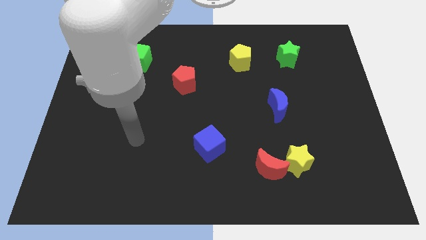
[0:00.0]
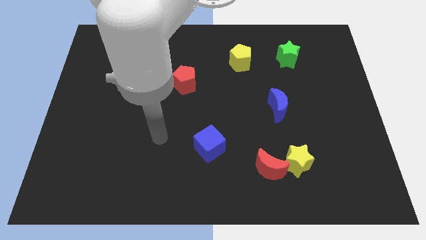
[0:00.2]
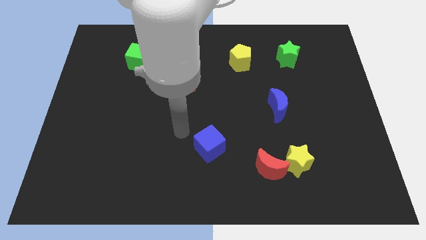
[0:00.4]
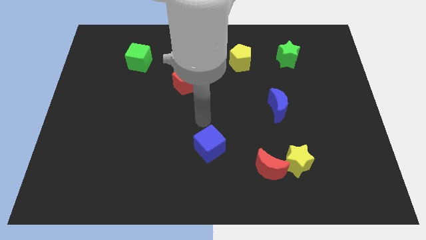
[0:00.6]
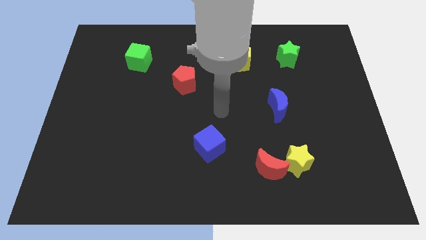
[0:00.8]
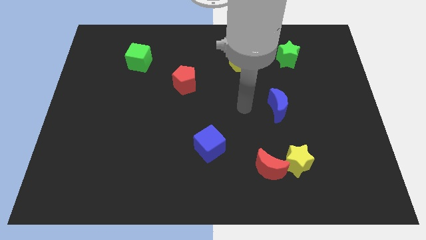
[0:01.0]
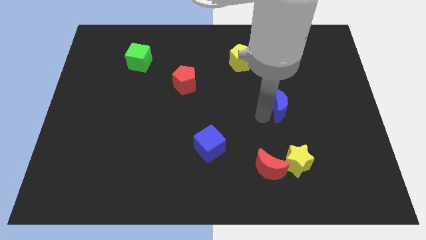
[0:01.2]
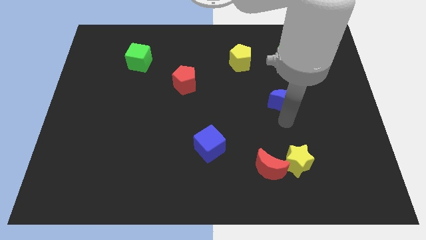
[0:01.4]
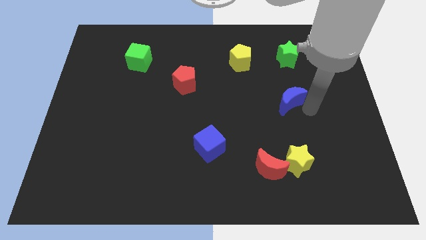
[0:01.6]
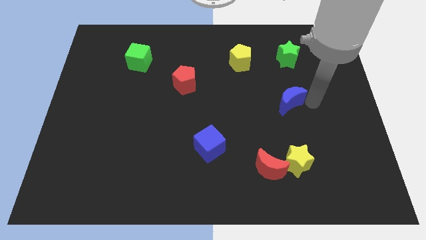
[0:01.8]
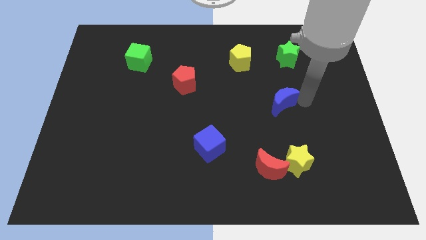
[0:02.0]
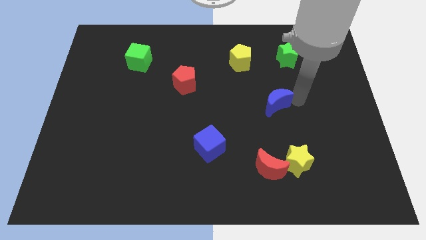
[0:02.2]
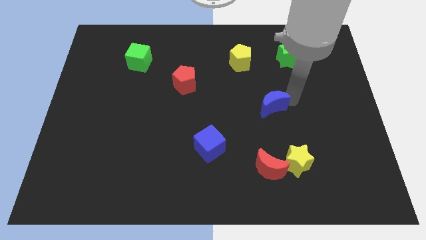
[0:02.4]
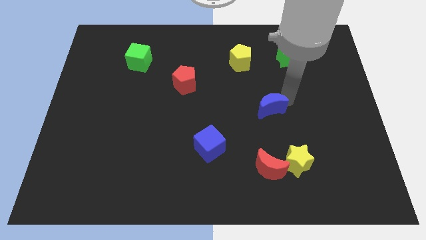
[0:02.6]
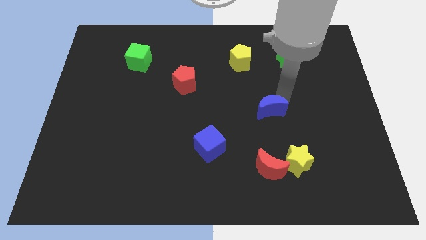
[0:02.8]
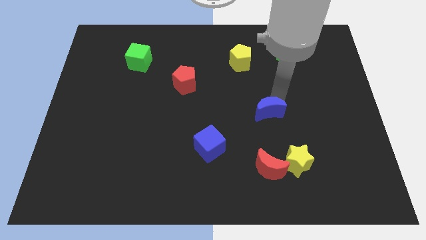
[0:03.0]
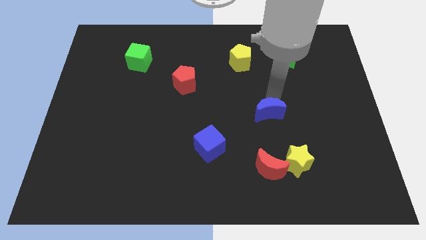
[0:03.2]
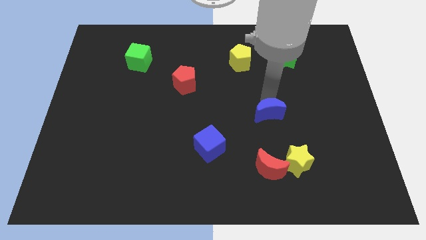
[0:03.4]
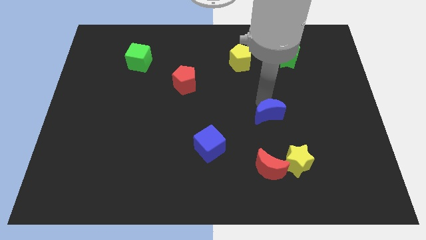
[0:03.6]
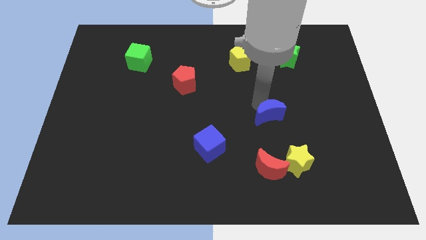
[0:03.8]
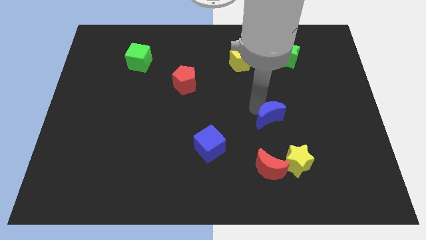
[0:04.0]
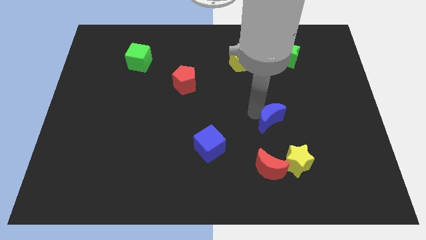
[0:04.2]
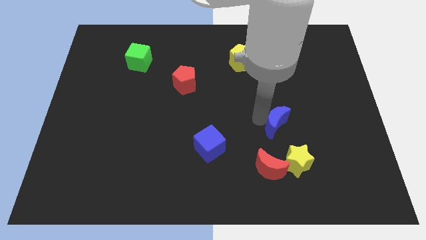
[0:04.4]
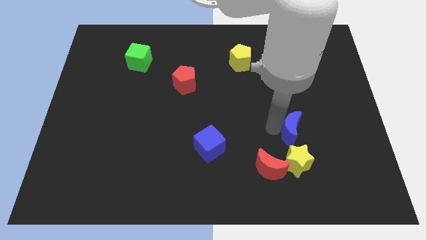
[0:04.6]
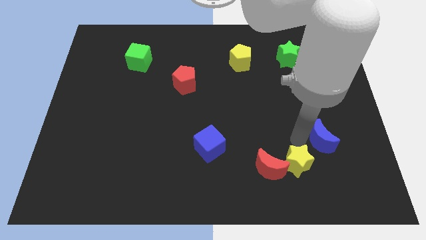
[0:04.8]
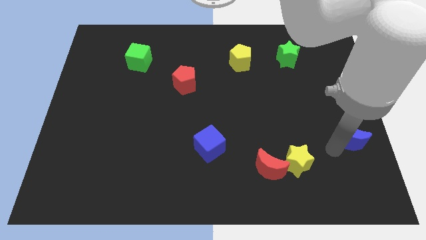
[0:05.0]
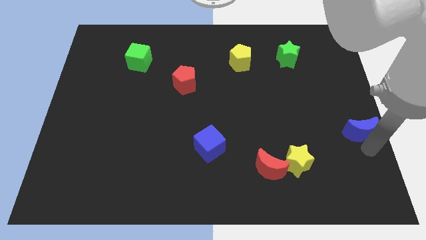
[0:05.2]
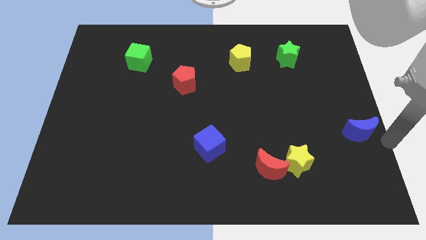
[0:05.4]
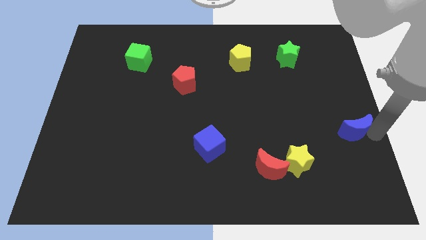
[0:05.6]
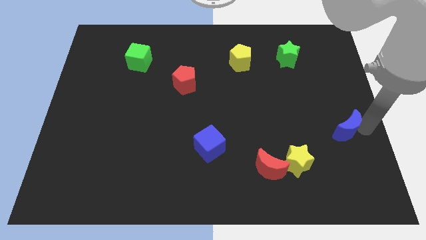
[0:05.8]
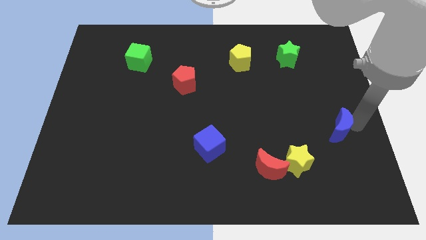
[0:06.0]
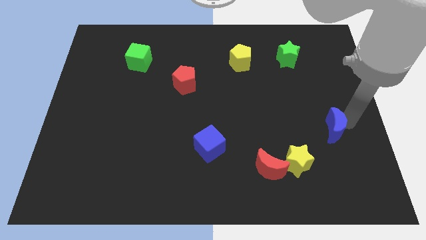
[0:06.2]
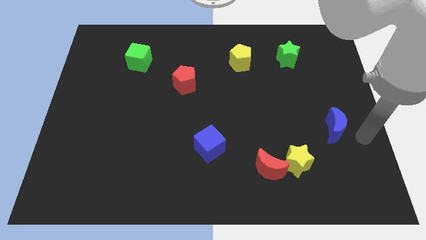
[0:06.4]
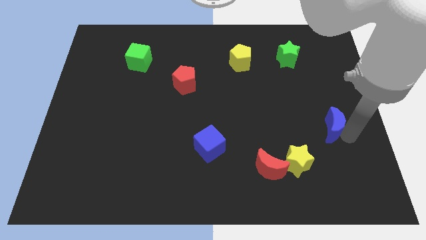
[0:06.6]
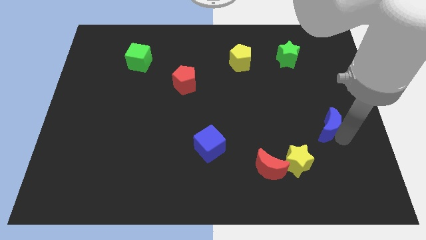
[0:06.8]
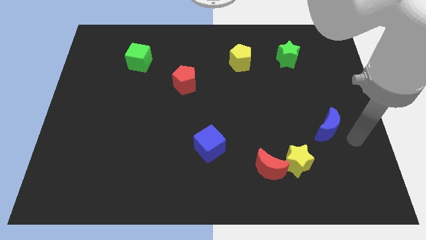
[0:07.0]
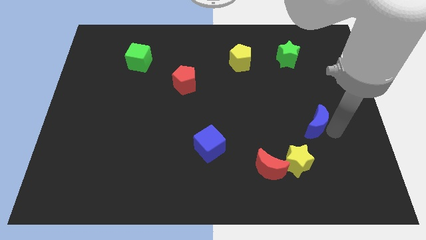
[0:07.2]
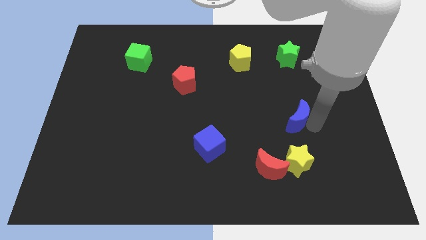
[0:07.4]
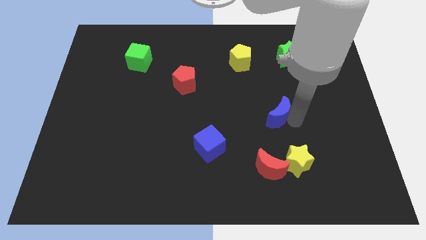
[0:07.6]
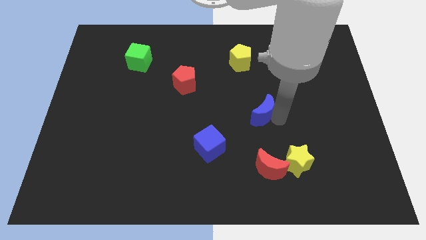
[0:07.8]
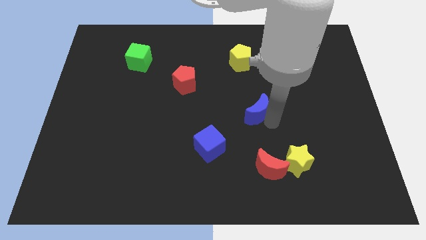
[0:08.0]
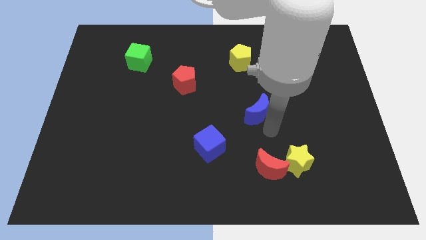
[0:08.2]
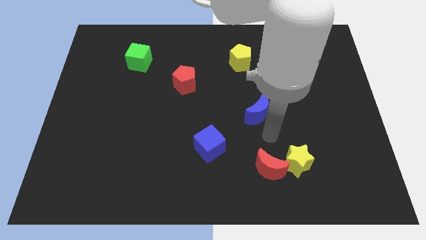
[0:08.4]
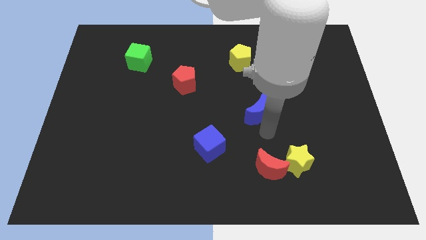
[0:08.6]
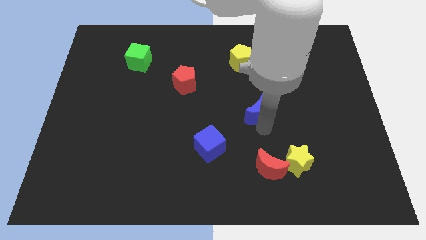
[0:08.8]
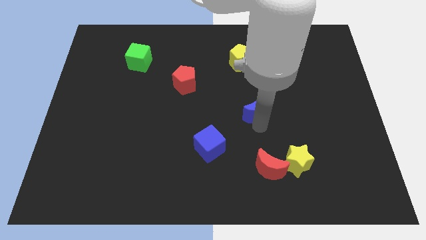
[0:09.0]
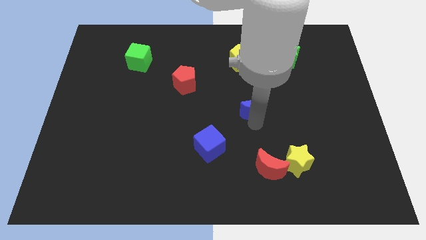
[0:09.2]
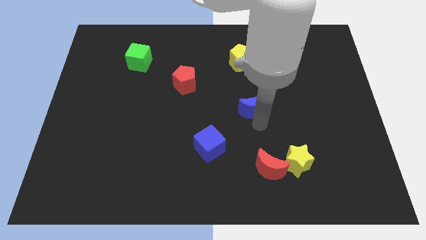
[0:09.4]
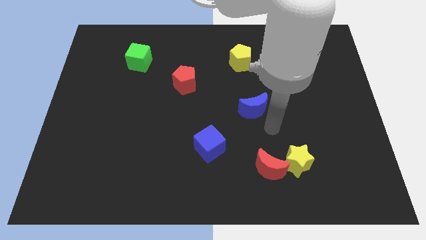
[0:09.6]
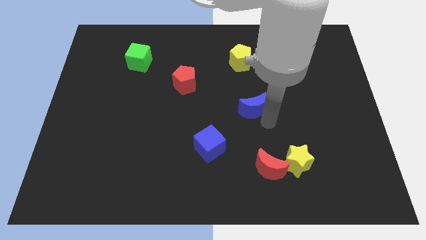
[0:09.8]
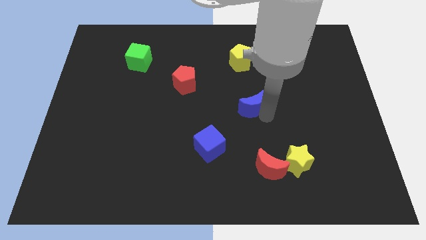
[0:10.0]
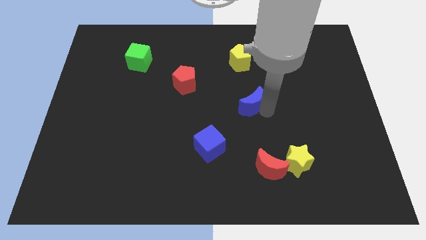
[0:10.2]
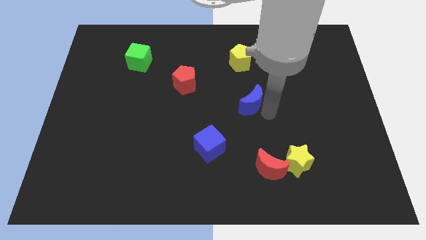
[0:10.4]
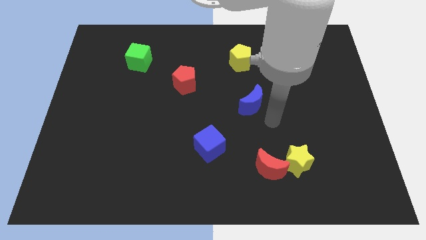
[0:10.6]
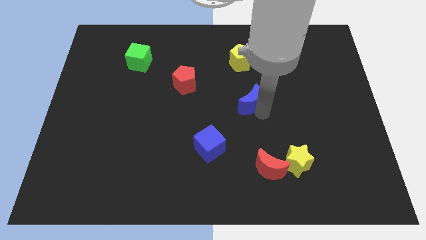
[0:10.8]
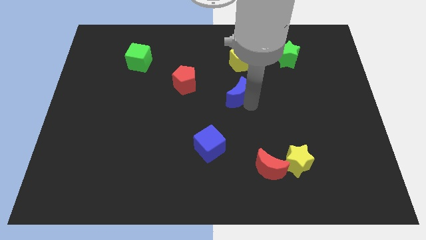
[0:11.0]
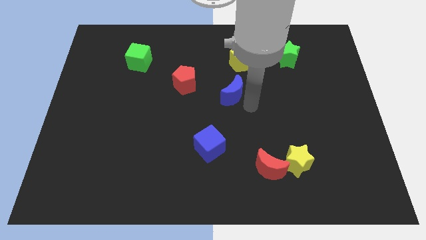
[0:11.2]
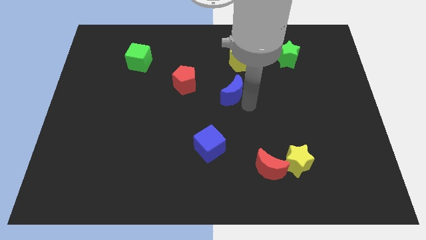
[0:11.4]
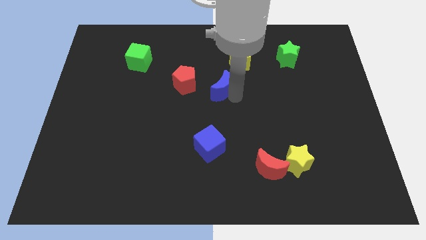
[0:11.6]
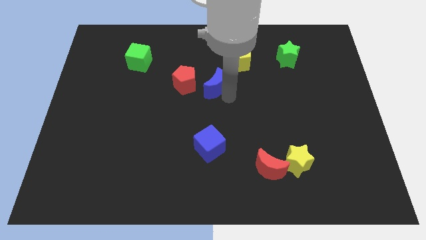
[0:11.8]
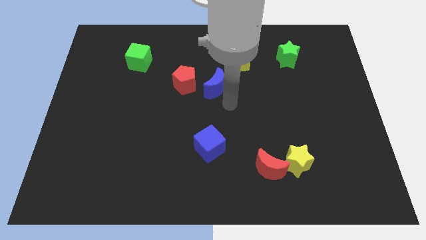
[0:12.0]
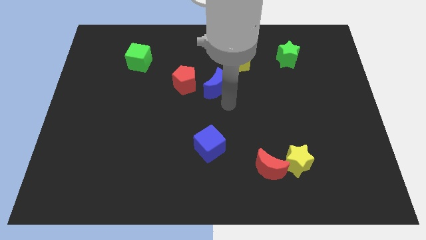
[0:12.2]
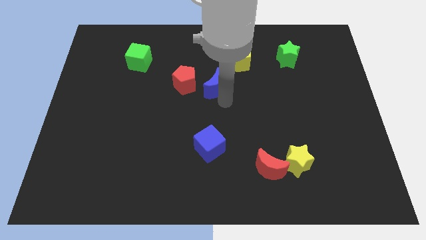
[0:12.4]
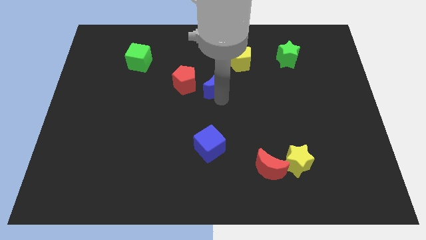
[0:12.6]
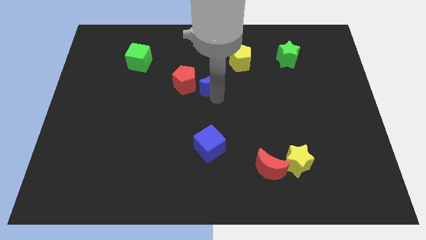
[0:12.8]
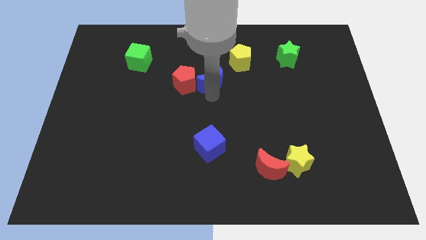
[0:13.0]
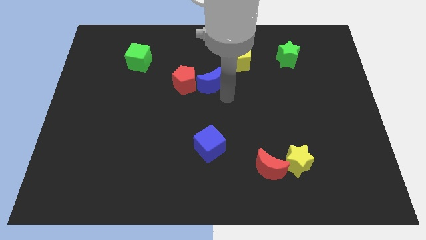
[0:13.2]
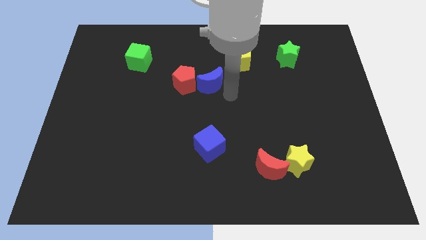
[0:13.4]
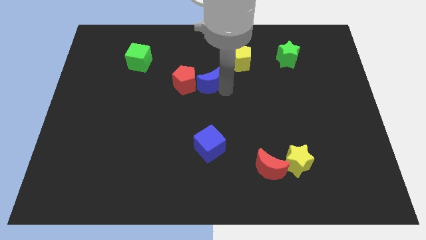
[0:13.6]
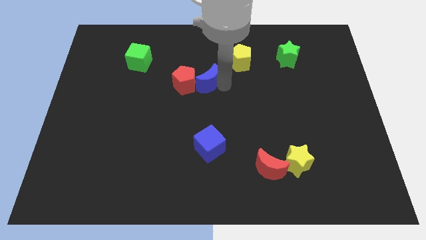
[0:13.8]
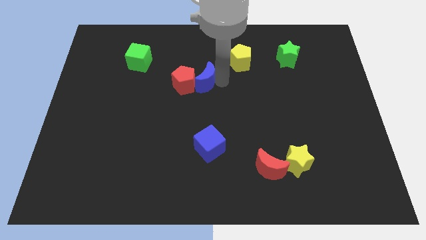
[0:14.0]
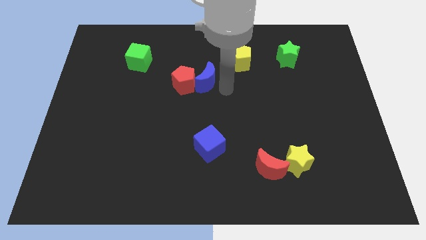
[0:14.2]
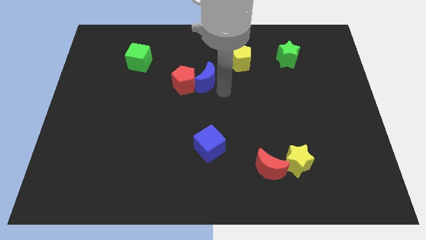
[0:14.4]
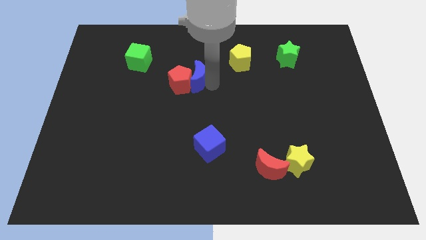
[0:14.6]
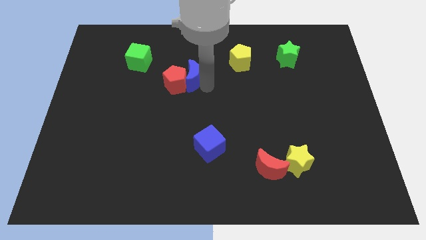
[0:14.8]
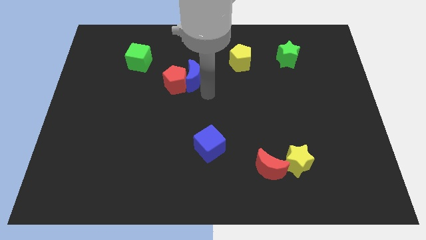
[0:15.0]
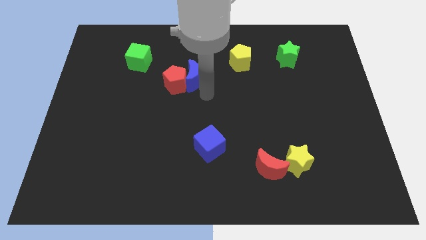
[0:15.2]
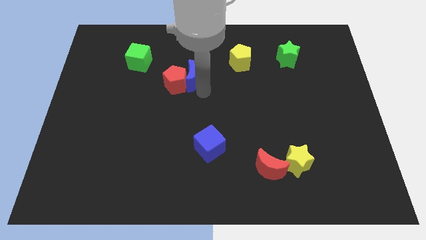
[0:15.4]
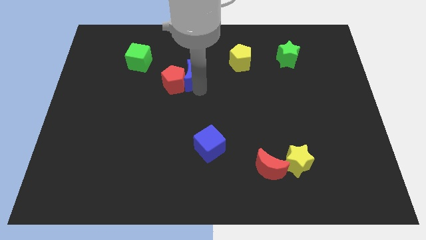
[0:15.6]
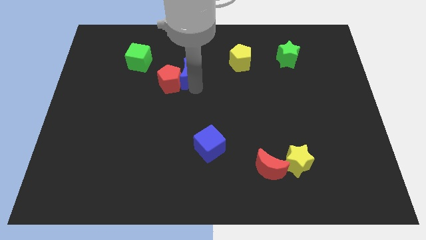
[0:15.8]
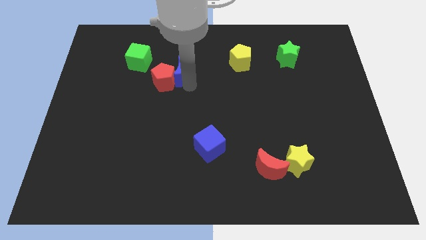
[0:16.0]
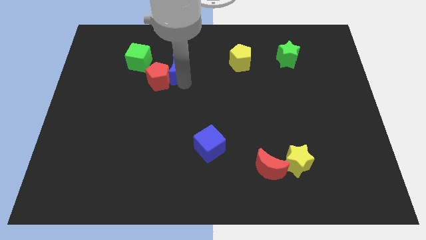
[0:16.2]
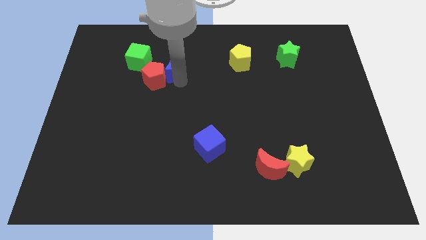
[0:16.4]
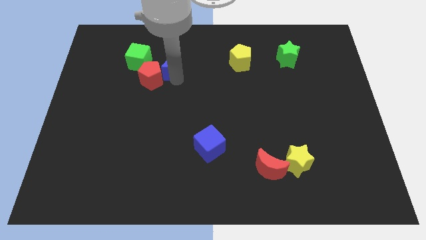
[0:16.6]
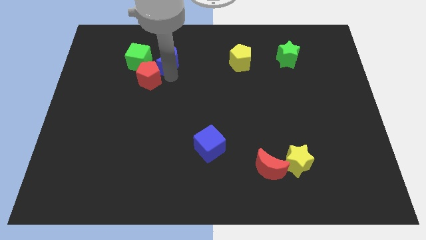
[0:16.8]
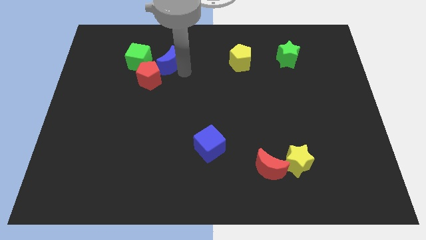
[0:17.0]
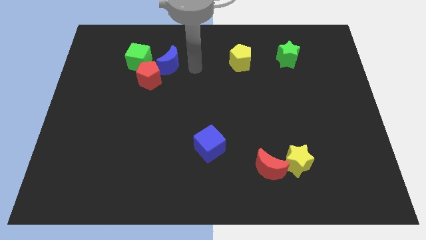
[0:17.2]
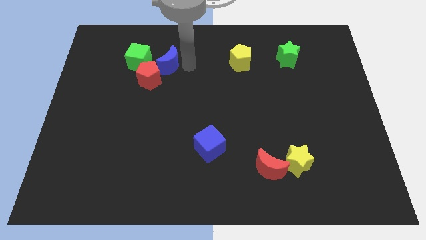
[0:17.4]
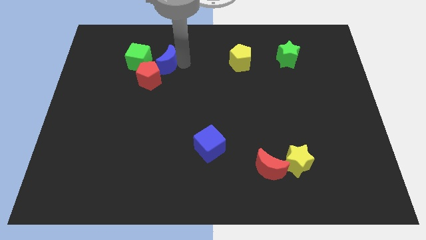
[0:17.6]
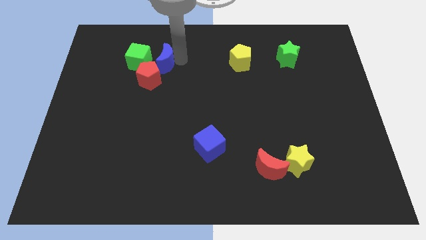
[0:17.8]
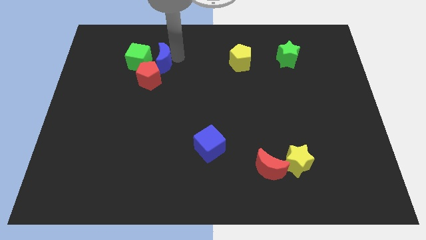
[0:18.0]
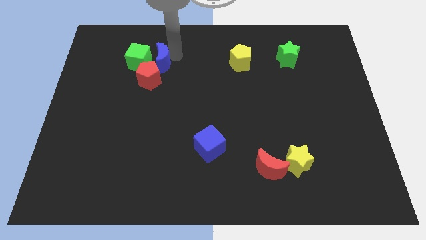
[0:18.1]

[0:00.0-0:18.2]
put the blue moon close to the green cube
